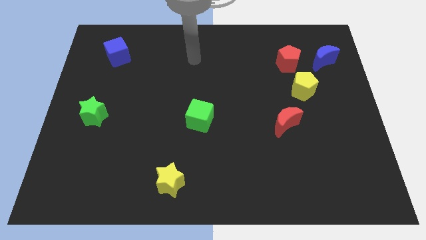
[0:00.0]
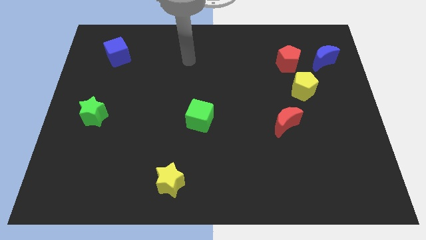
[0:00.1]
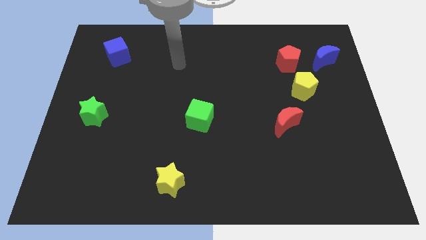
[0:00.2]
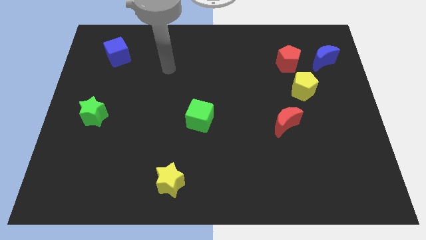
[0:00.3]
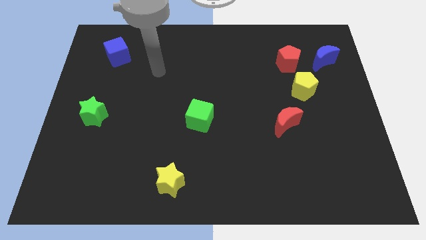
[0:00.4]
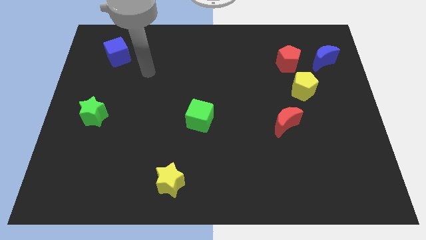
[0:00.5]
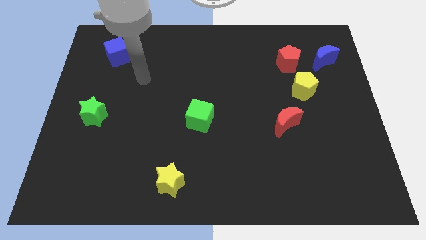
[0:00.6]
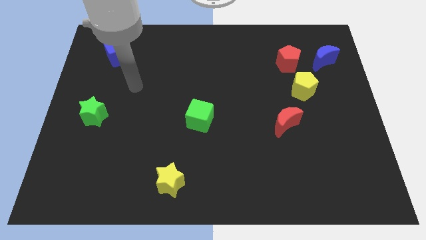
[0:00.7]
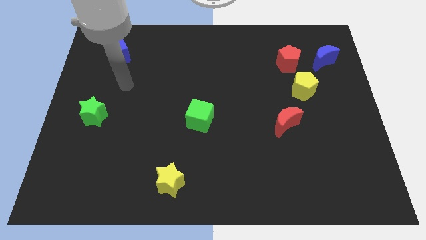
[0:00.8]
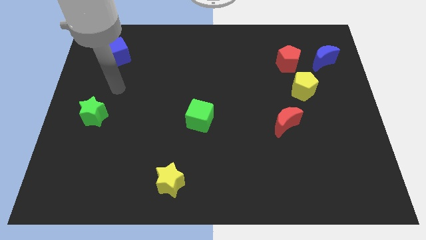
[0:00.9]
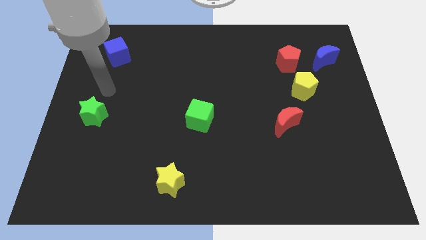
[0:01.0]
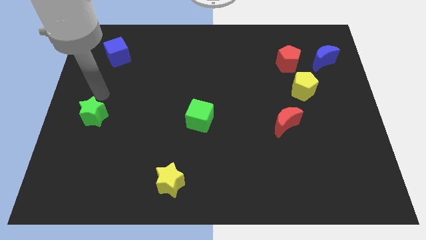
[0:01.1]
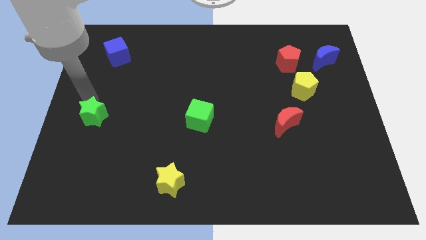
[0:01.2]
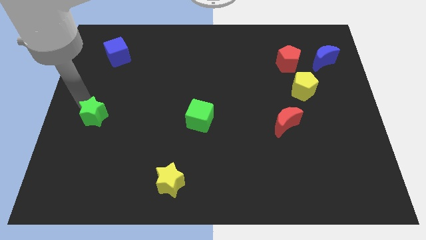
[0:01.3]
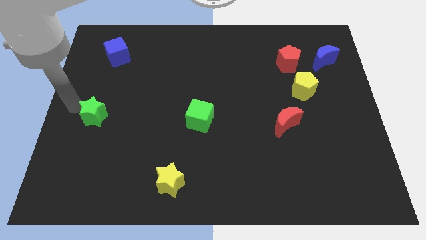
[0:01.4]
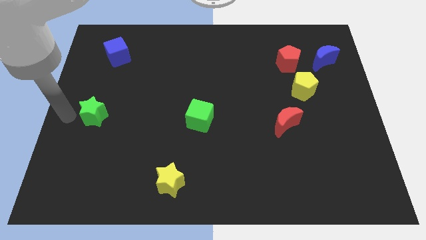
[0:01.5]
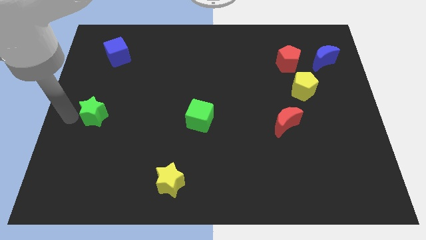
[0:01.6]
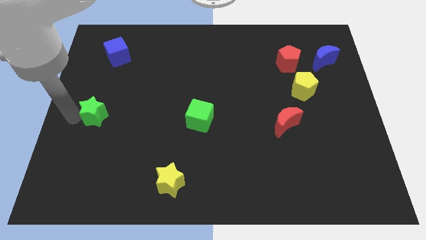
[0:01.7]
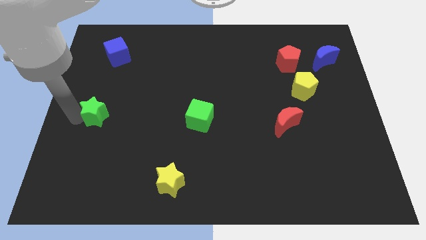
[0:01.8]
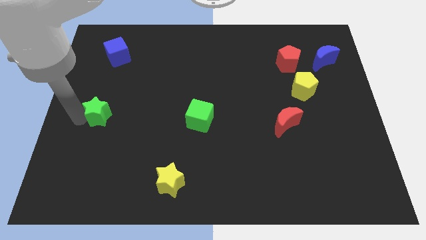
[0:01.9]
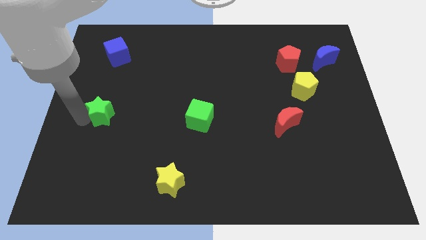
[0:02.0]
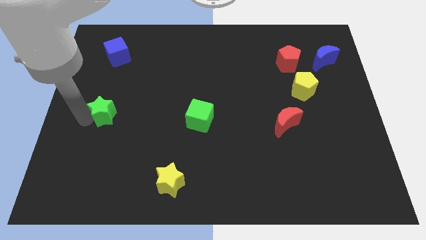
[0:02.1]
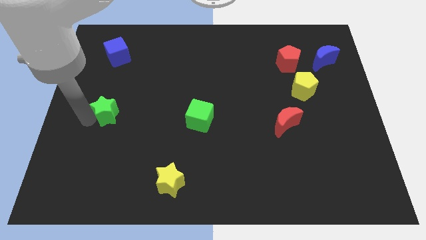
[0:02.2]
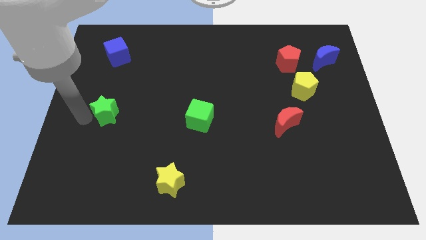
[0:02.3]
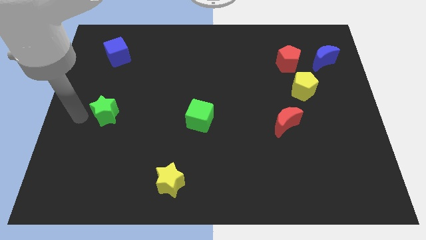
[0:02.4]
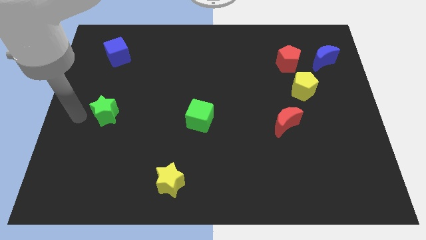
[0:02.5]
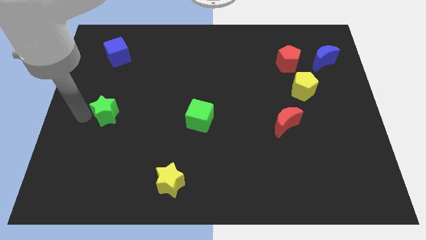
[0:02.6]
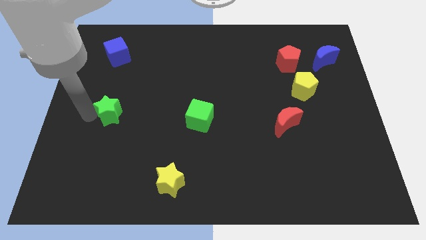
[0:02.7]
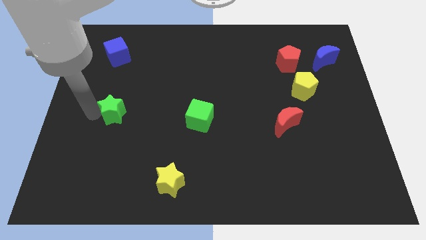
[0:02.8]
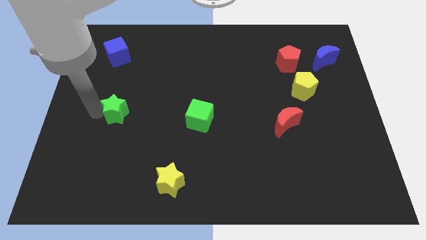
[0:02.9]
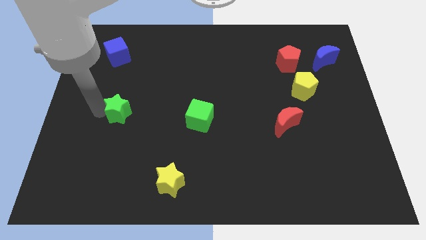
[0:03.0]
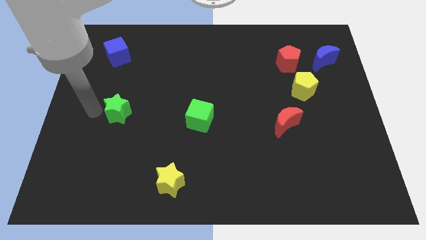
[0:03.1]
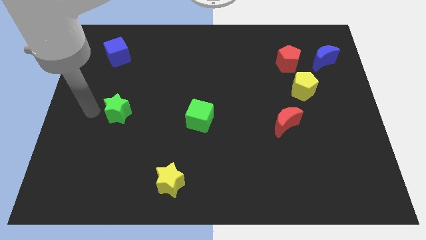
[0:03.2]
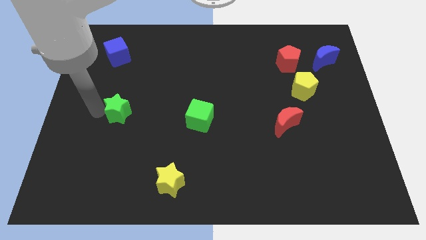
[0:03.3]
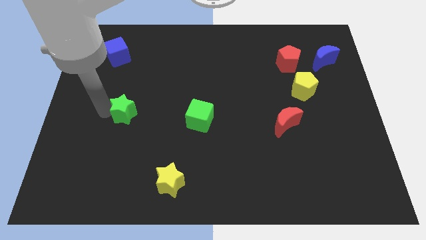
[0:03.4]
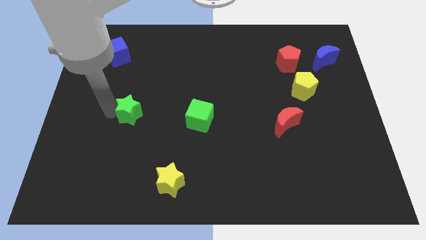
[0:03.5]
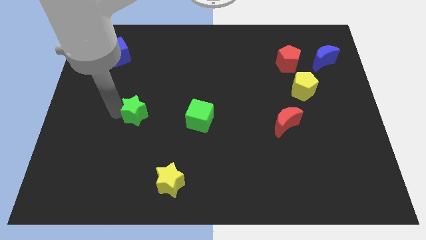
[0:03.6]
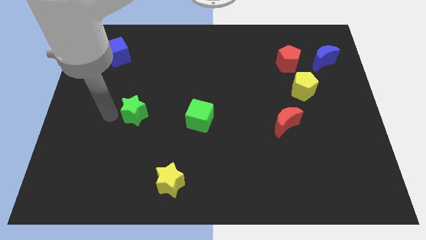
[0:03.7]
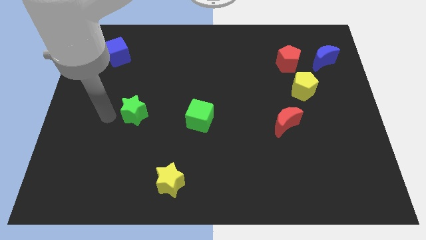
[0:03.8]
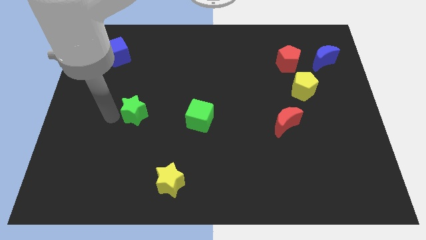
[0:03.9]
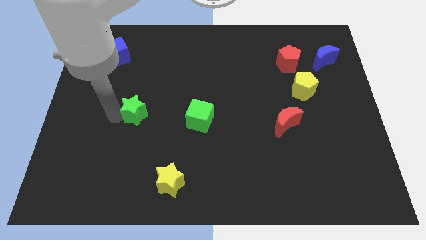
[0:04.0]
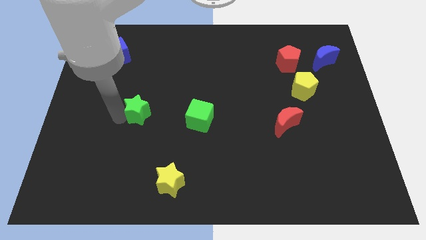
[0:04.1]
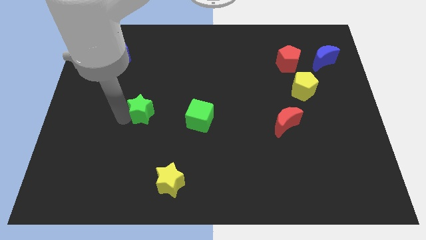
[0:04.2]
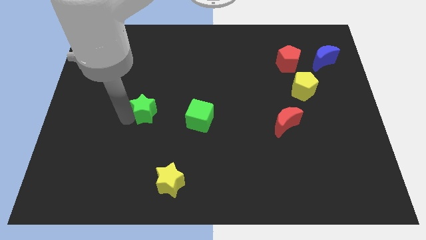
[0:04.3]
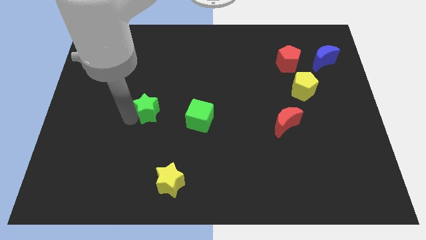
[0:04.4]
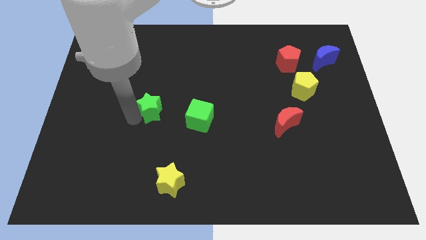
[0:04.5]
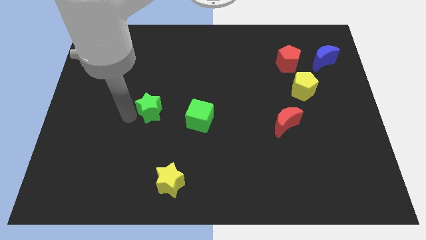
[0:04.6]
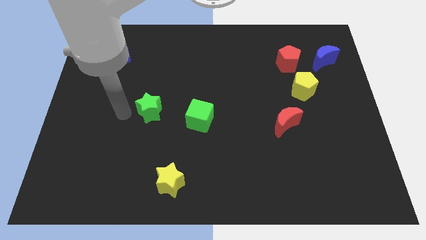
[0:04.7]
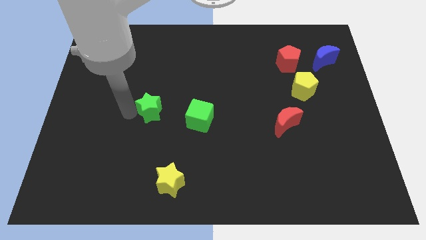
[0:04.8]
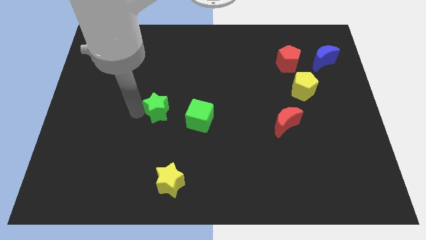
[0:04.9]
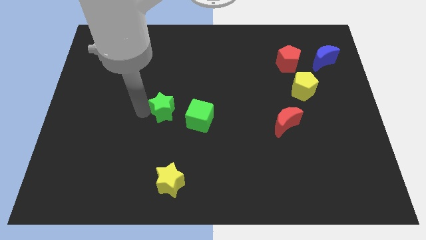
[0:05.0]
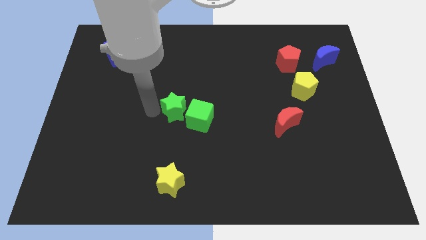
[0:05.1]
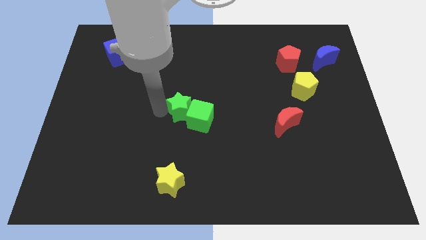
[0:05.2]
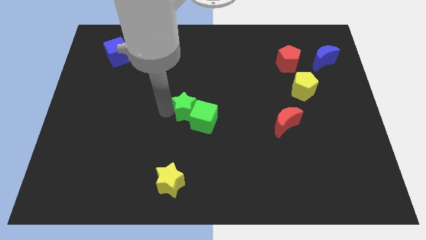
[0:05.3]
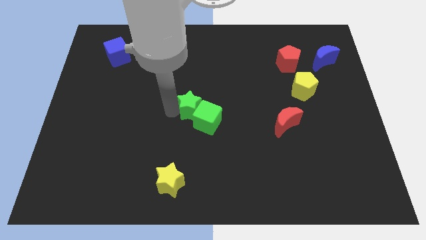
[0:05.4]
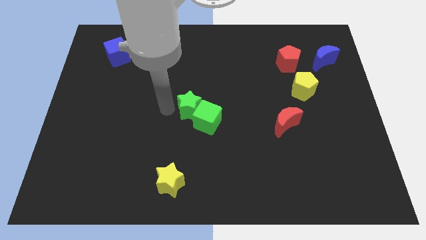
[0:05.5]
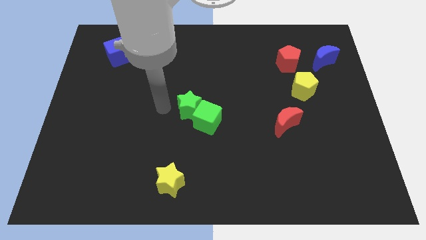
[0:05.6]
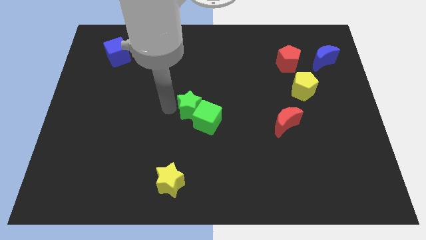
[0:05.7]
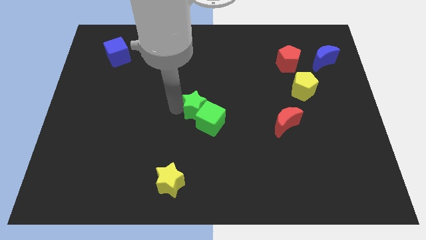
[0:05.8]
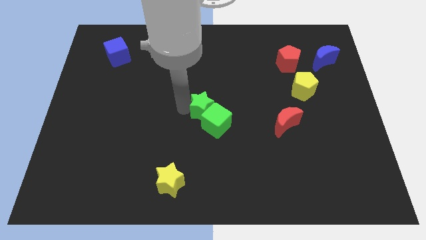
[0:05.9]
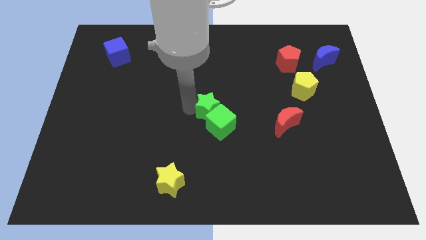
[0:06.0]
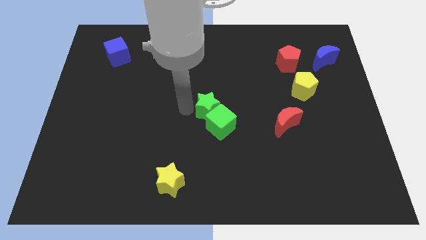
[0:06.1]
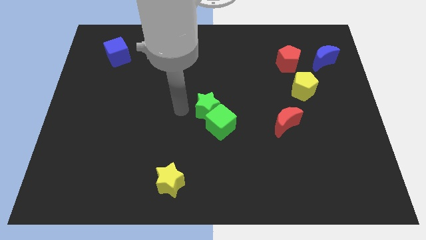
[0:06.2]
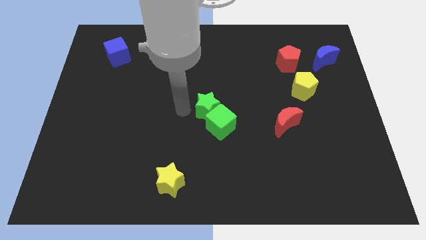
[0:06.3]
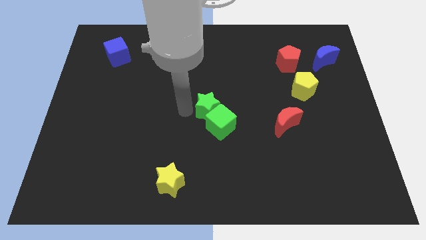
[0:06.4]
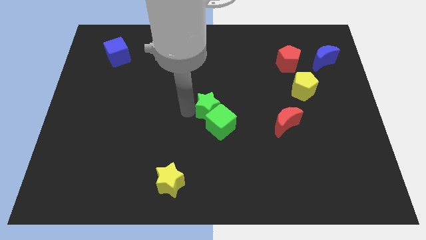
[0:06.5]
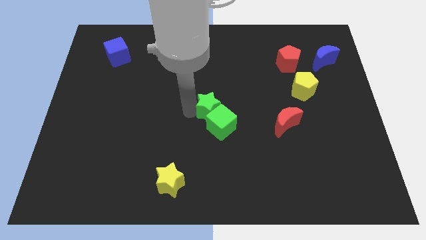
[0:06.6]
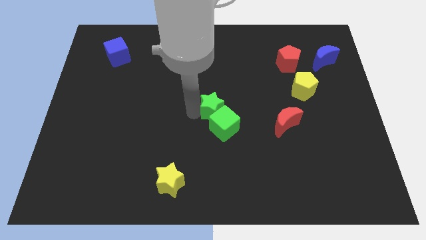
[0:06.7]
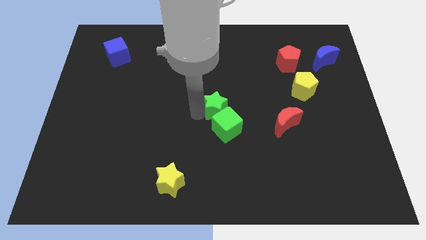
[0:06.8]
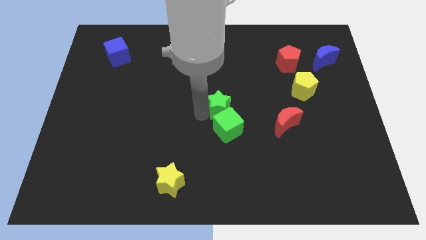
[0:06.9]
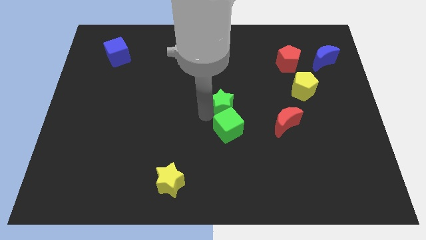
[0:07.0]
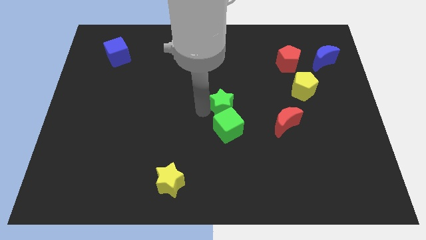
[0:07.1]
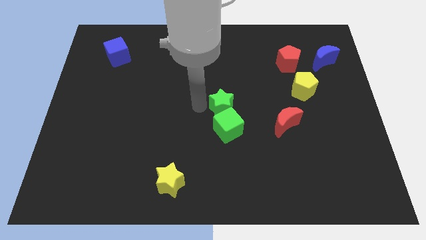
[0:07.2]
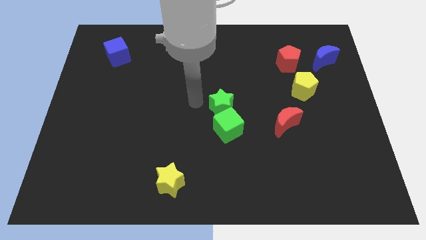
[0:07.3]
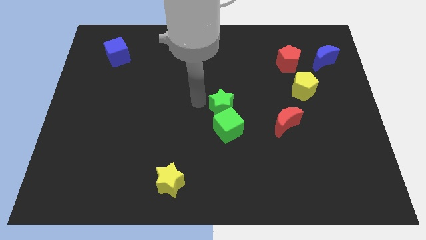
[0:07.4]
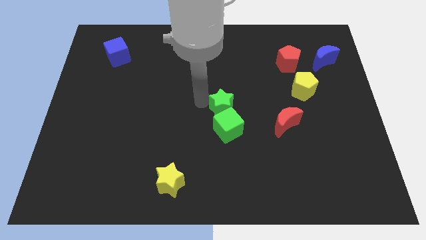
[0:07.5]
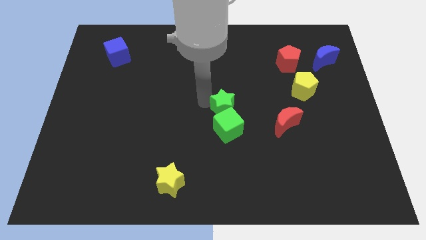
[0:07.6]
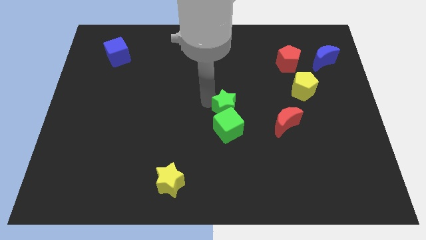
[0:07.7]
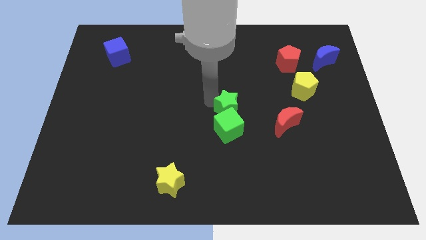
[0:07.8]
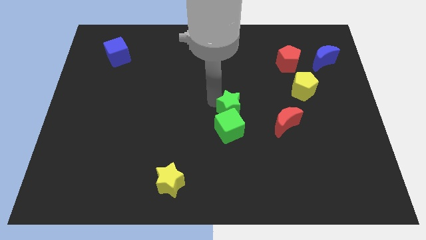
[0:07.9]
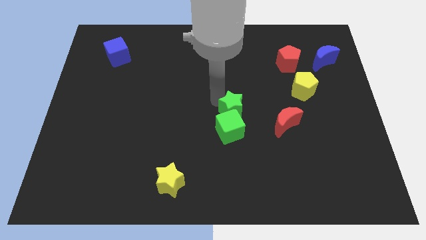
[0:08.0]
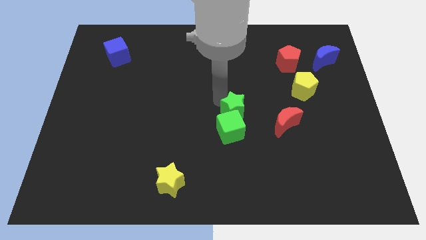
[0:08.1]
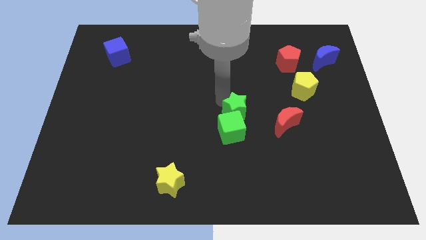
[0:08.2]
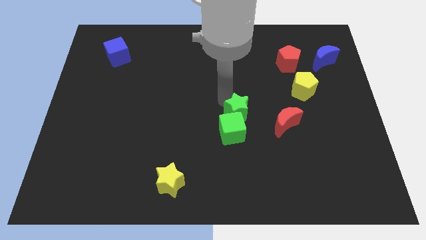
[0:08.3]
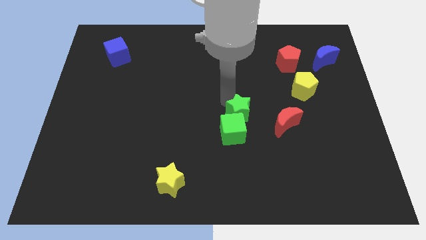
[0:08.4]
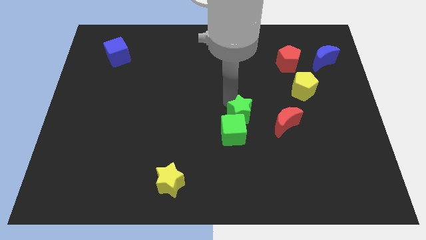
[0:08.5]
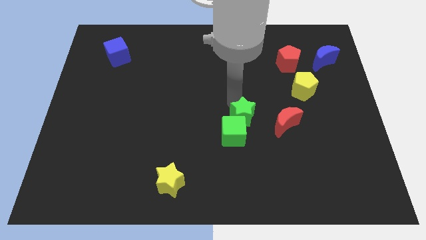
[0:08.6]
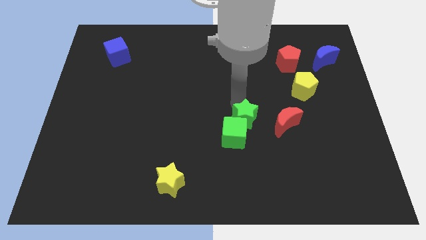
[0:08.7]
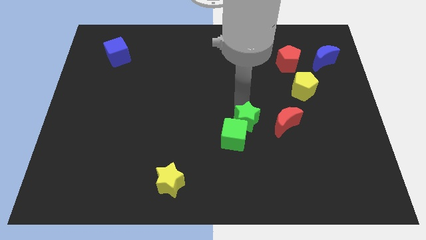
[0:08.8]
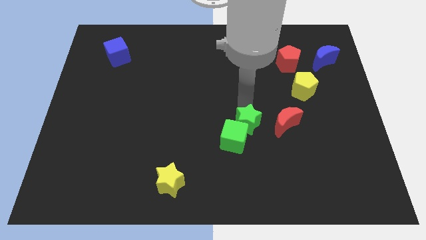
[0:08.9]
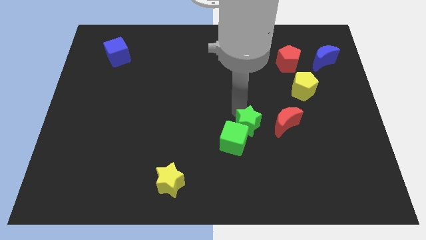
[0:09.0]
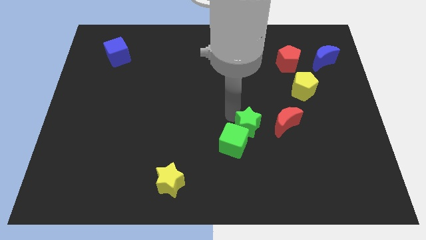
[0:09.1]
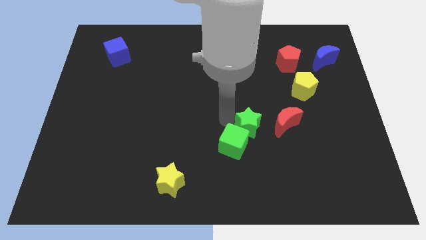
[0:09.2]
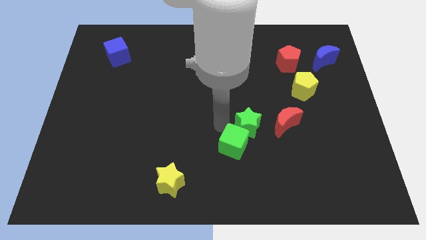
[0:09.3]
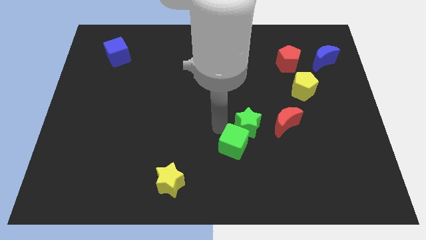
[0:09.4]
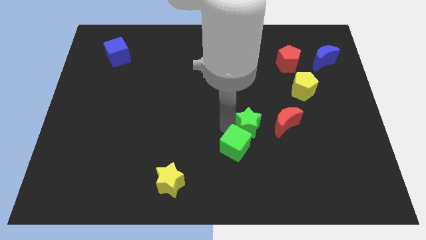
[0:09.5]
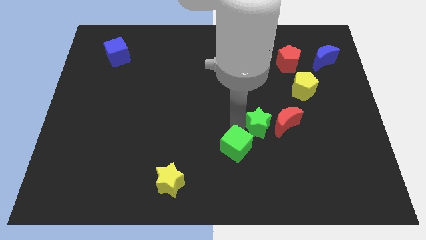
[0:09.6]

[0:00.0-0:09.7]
push the green star to the red moon
